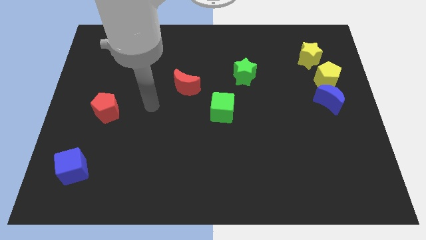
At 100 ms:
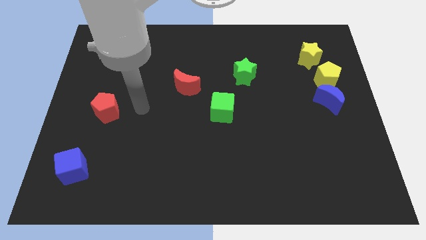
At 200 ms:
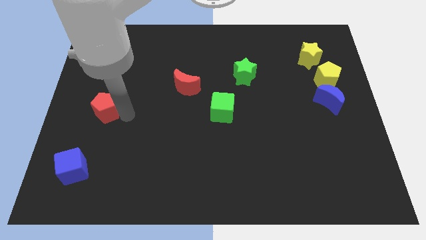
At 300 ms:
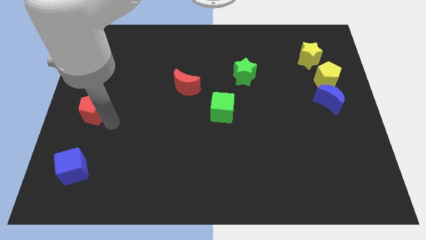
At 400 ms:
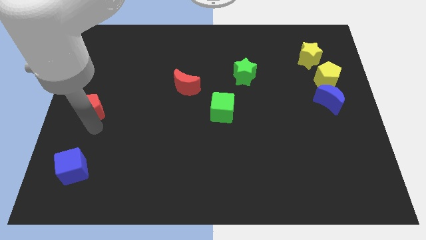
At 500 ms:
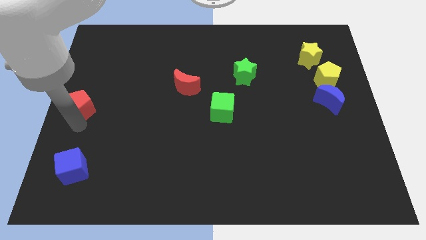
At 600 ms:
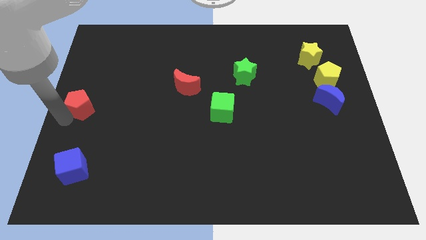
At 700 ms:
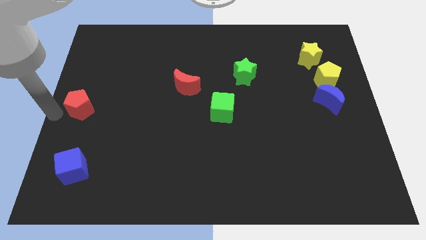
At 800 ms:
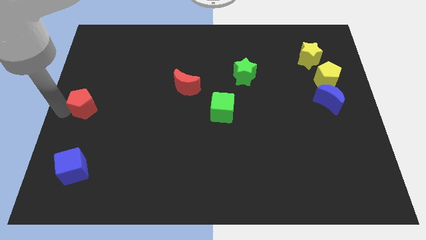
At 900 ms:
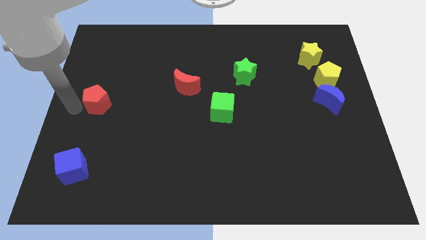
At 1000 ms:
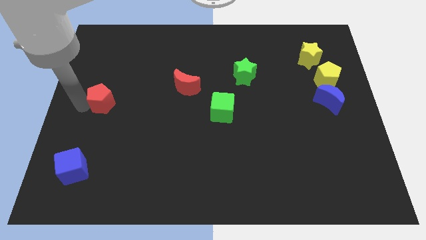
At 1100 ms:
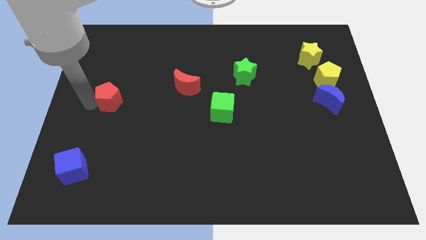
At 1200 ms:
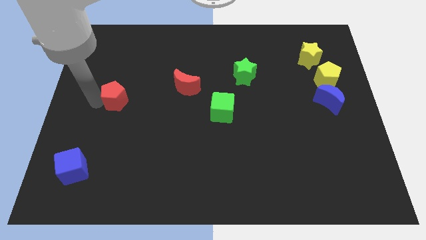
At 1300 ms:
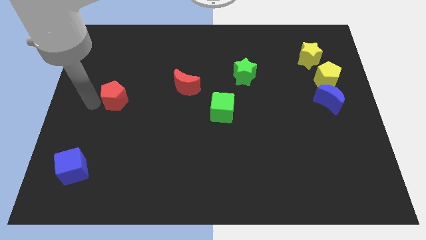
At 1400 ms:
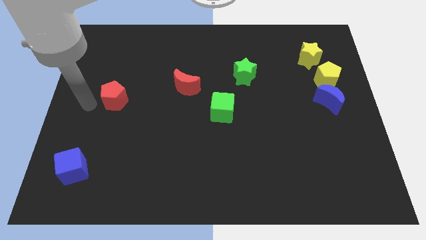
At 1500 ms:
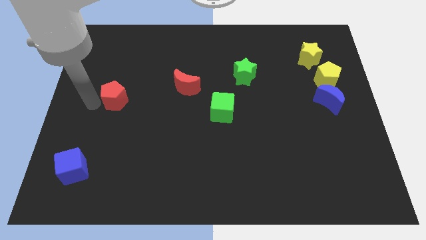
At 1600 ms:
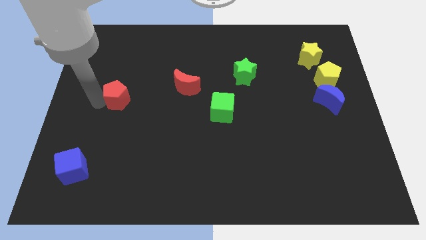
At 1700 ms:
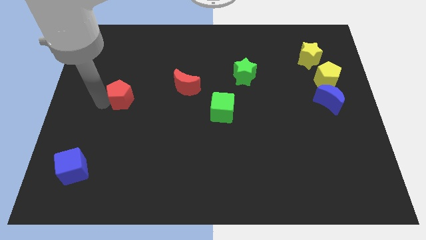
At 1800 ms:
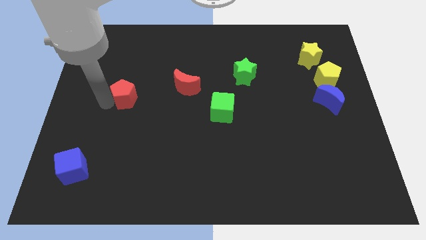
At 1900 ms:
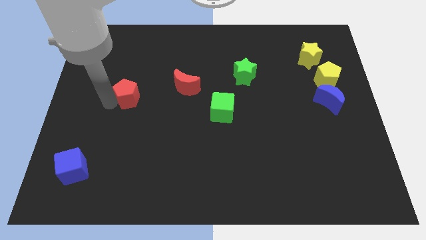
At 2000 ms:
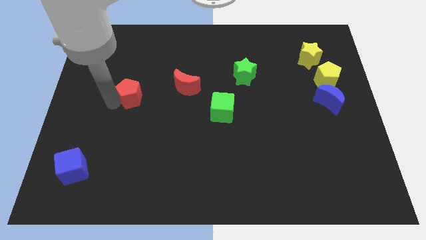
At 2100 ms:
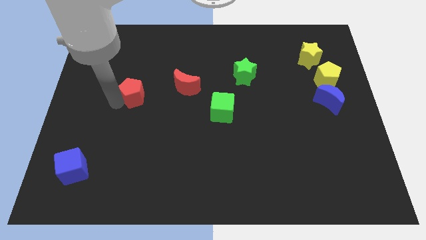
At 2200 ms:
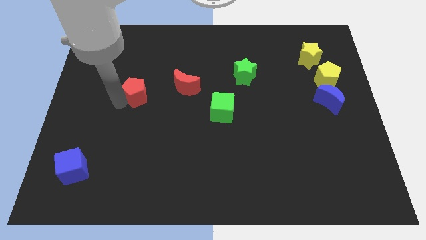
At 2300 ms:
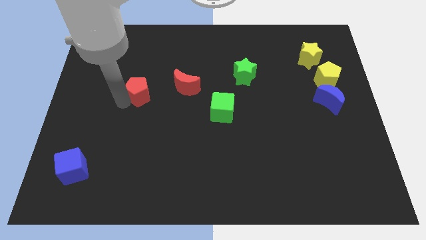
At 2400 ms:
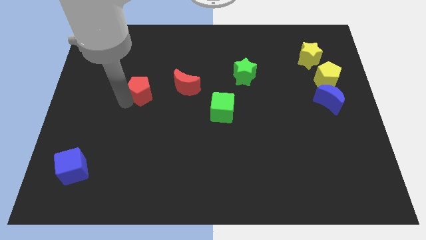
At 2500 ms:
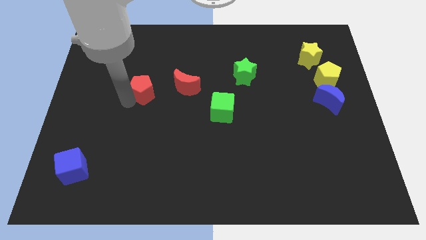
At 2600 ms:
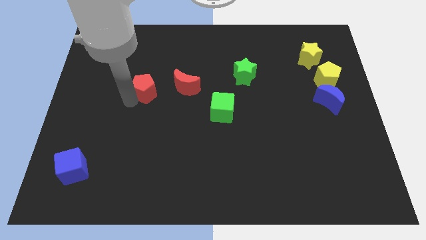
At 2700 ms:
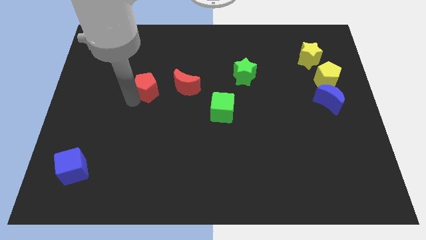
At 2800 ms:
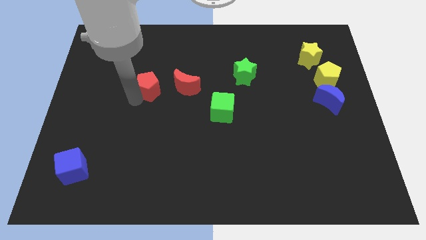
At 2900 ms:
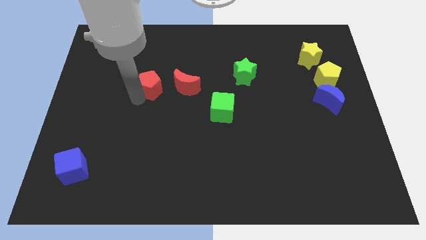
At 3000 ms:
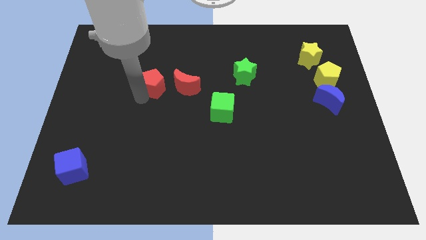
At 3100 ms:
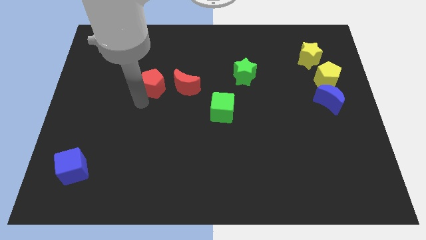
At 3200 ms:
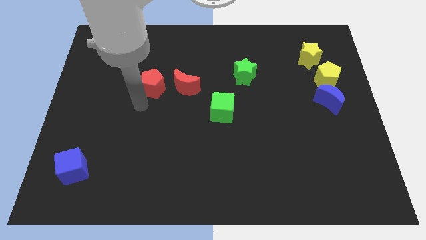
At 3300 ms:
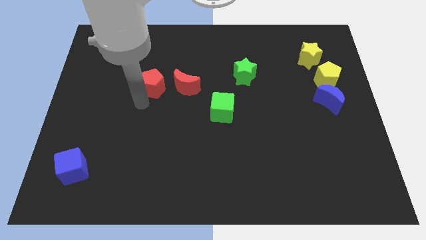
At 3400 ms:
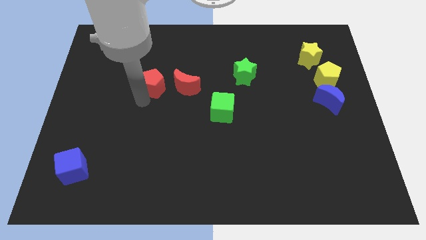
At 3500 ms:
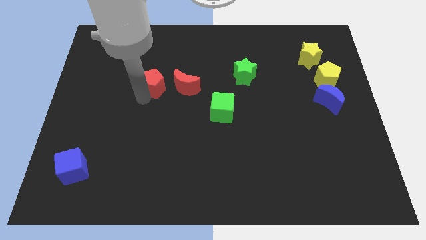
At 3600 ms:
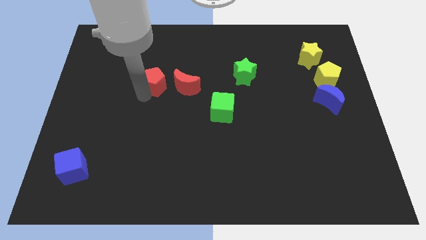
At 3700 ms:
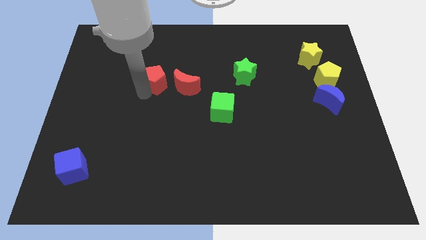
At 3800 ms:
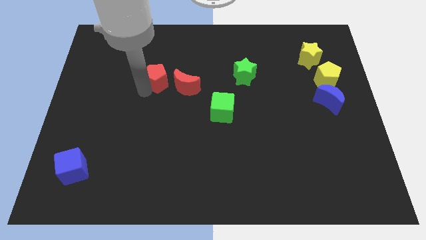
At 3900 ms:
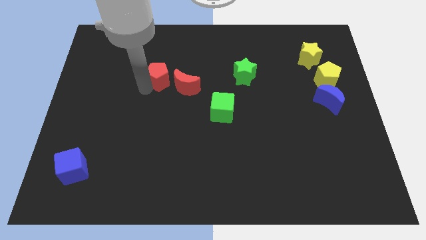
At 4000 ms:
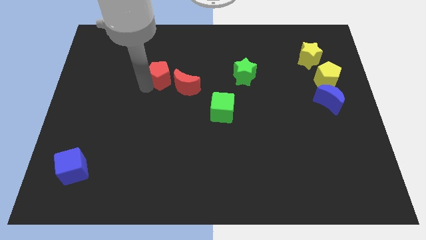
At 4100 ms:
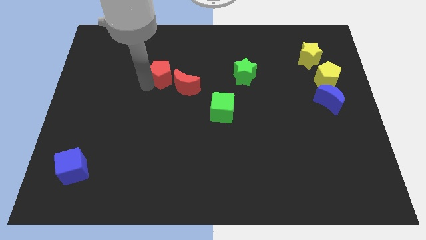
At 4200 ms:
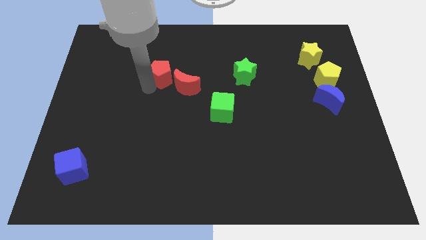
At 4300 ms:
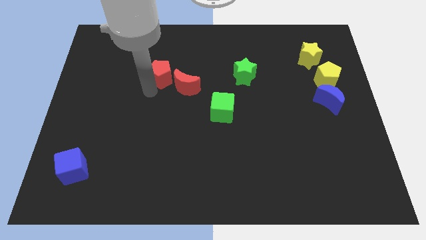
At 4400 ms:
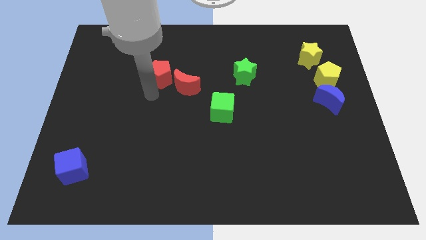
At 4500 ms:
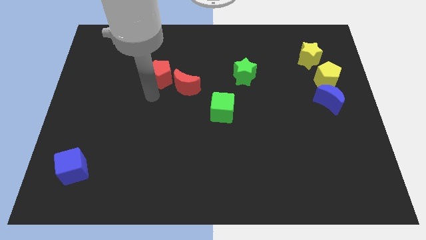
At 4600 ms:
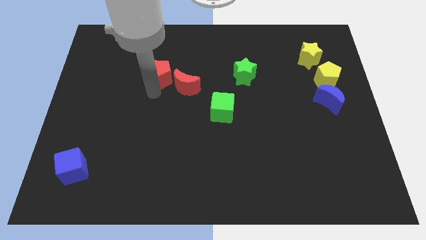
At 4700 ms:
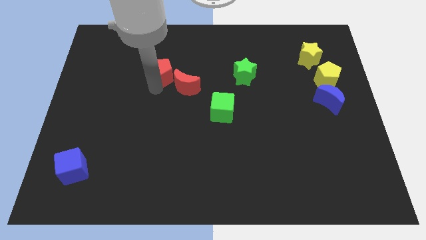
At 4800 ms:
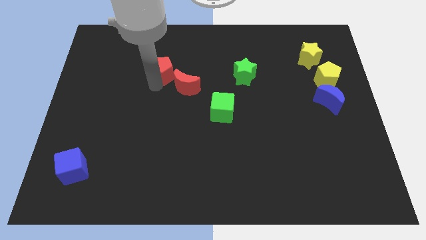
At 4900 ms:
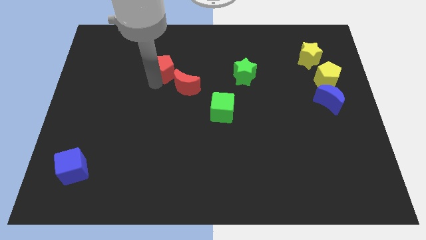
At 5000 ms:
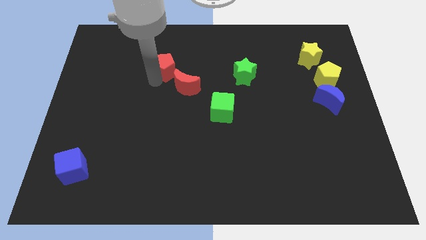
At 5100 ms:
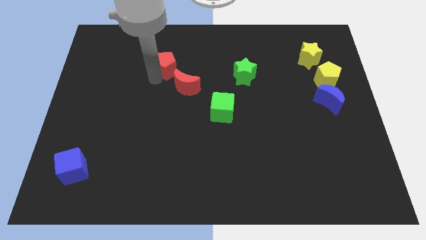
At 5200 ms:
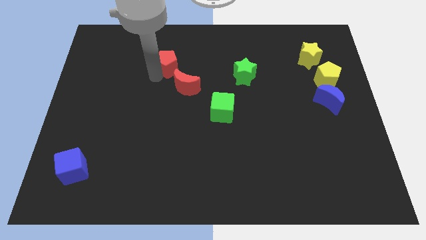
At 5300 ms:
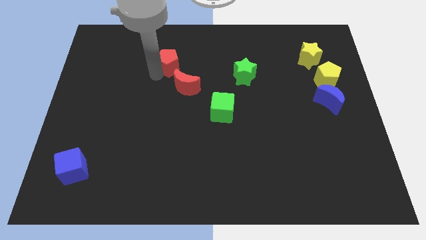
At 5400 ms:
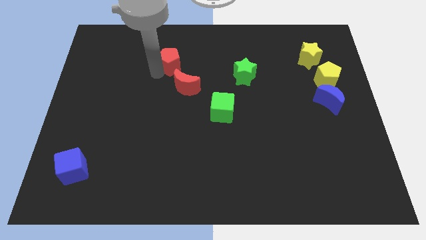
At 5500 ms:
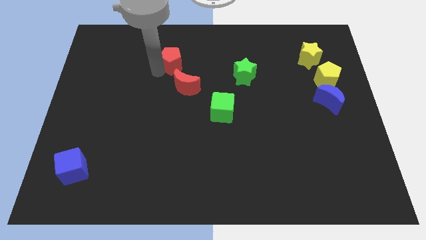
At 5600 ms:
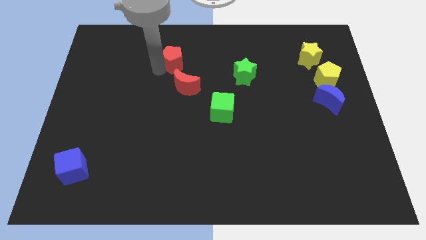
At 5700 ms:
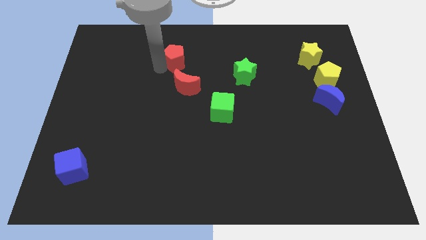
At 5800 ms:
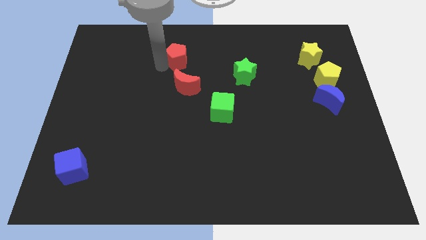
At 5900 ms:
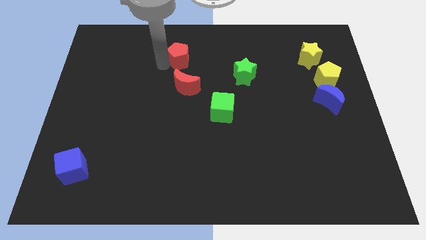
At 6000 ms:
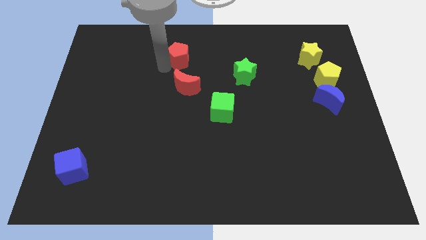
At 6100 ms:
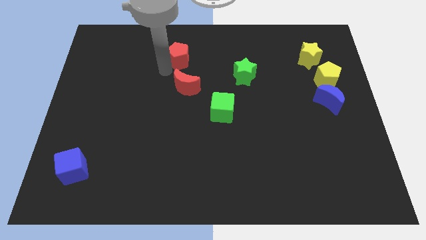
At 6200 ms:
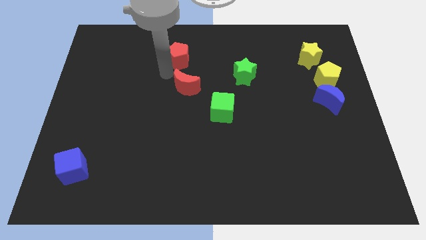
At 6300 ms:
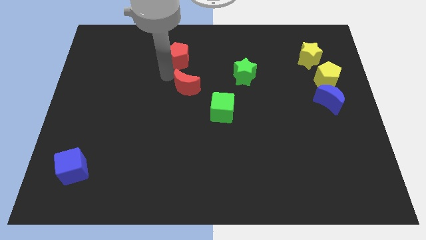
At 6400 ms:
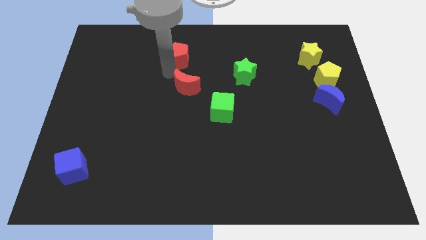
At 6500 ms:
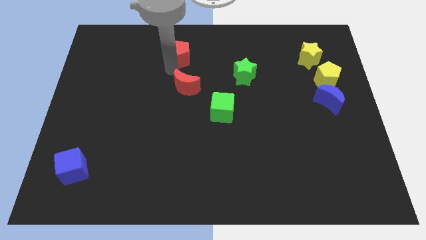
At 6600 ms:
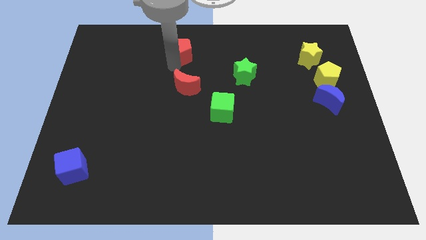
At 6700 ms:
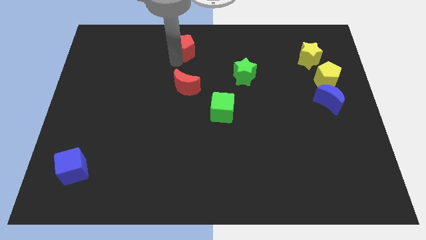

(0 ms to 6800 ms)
put the red pentagon to the top side

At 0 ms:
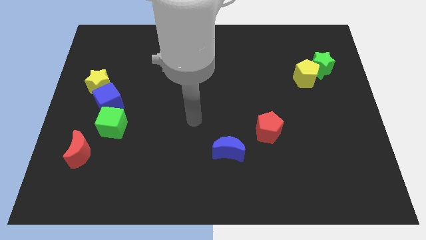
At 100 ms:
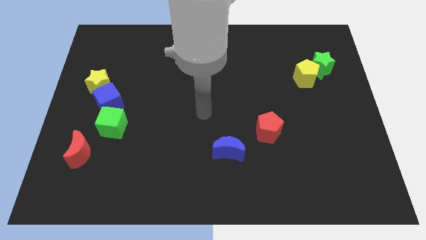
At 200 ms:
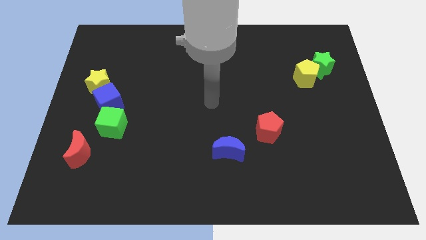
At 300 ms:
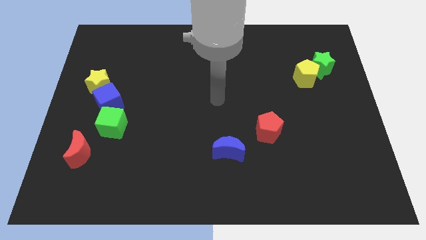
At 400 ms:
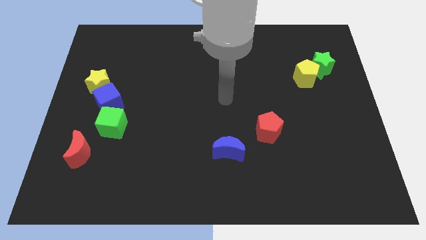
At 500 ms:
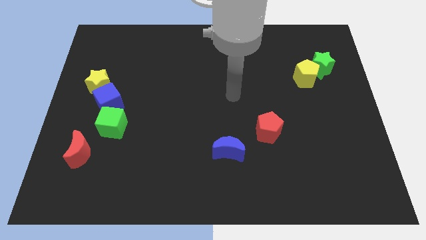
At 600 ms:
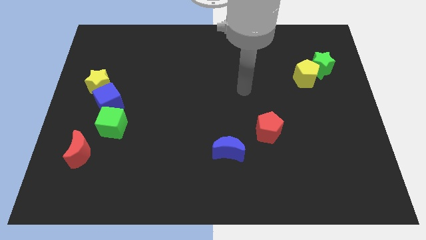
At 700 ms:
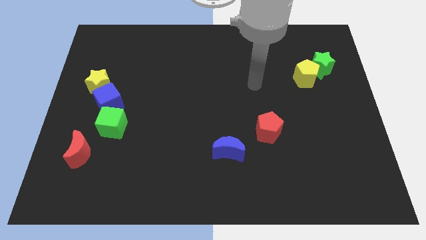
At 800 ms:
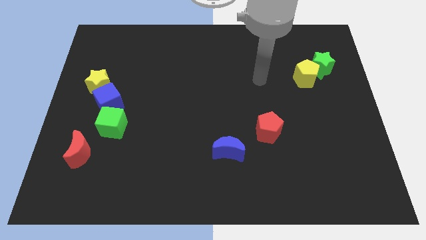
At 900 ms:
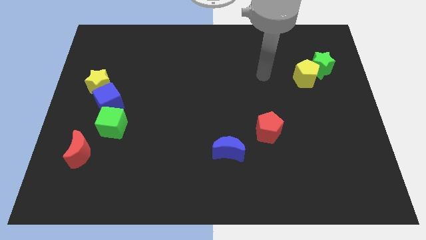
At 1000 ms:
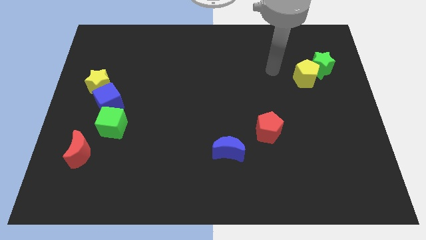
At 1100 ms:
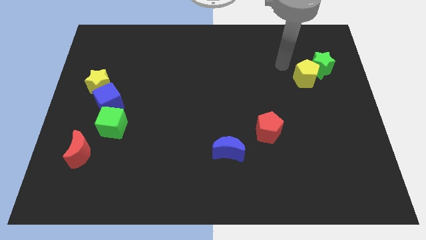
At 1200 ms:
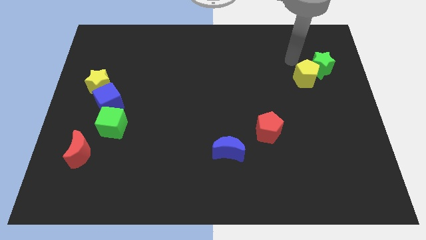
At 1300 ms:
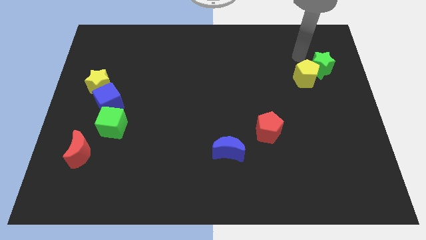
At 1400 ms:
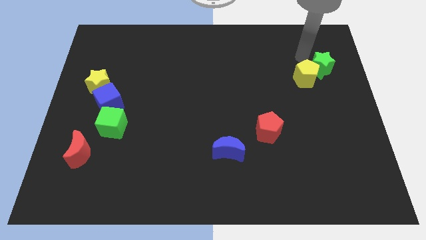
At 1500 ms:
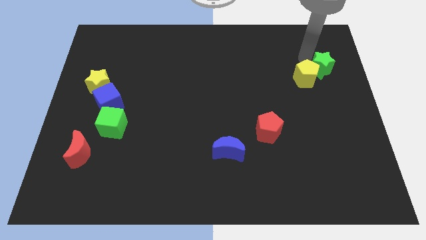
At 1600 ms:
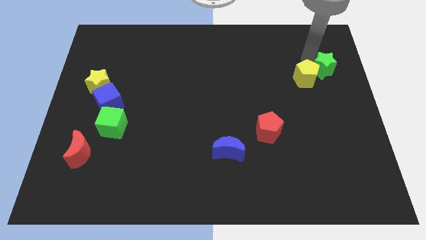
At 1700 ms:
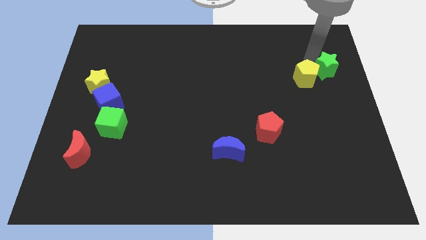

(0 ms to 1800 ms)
push the green star to the right side of the board
